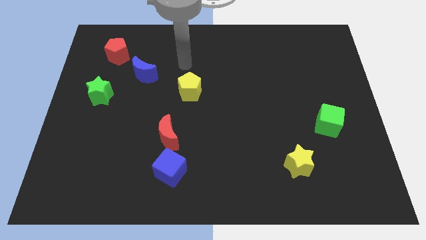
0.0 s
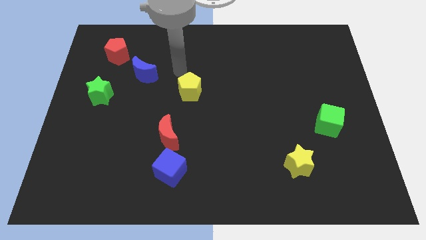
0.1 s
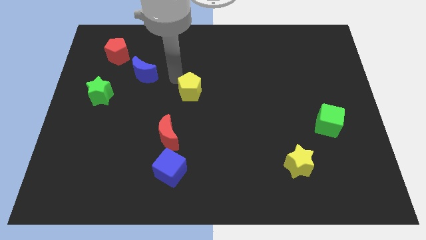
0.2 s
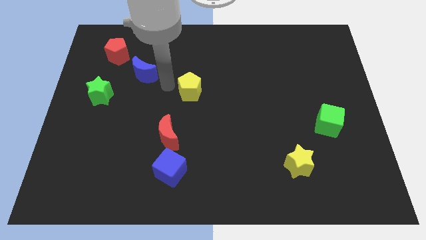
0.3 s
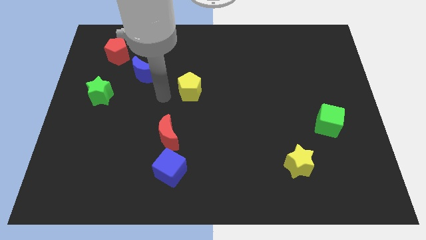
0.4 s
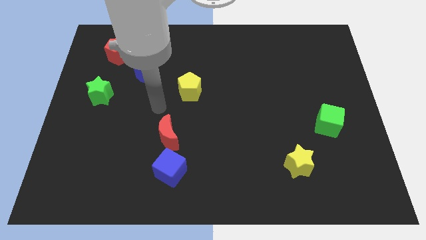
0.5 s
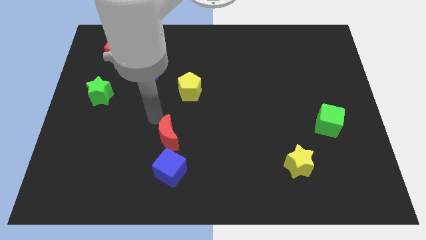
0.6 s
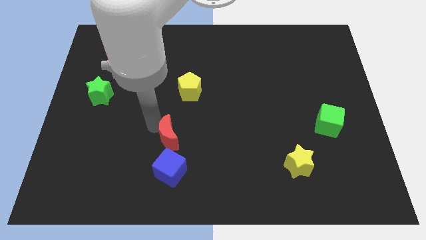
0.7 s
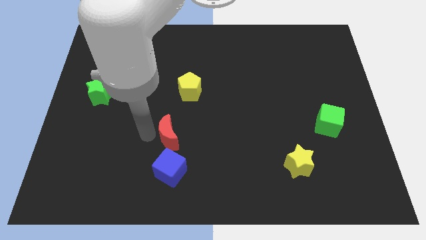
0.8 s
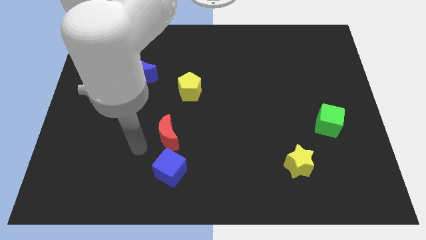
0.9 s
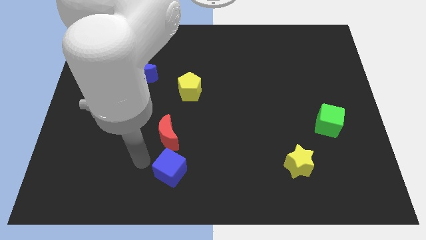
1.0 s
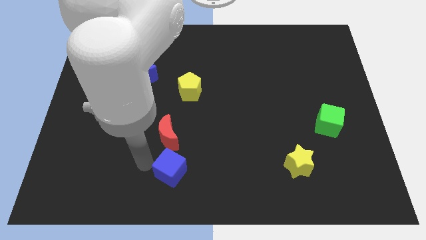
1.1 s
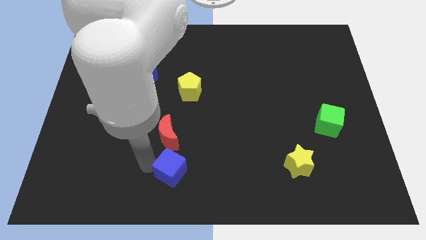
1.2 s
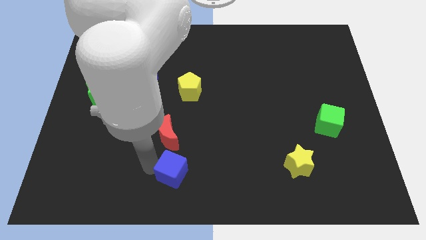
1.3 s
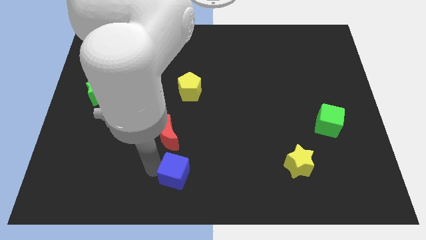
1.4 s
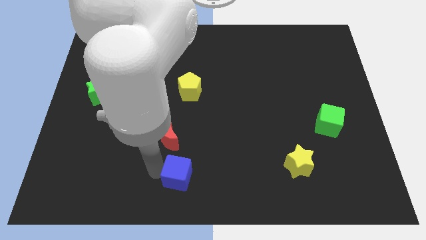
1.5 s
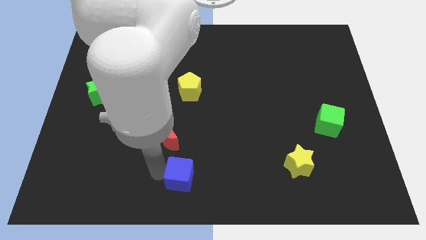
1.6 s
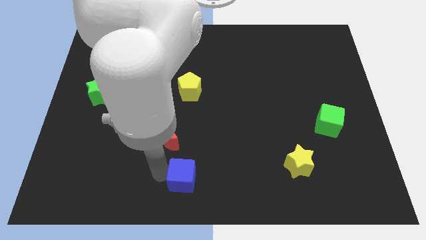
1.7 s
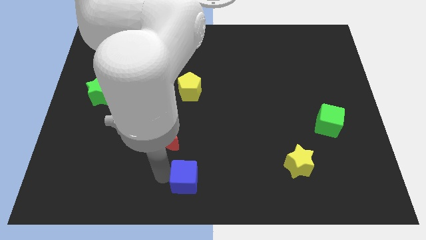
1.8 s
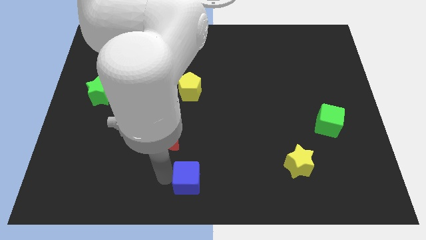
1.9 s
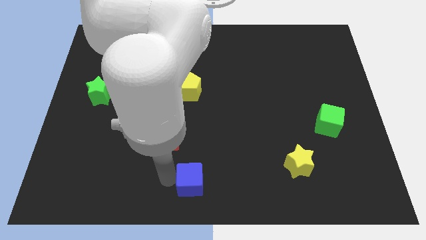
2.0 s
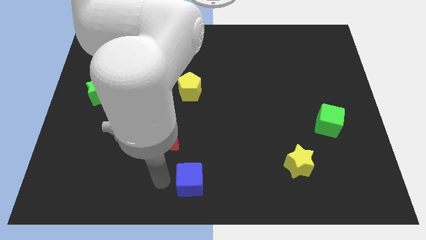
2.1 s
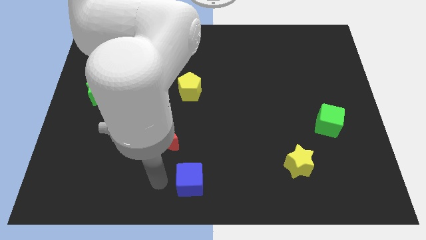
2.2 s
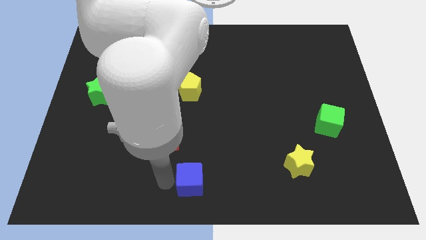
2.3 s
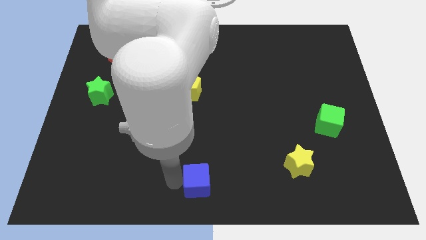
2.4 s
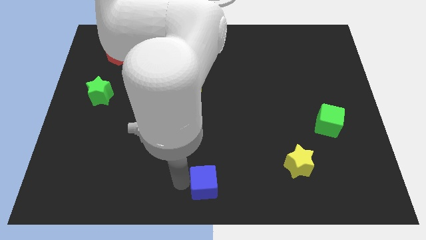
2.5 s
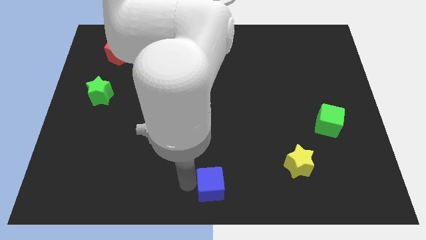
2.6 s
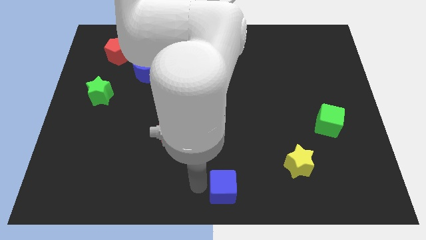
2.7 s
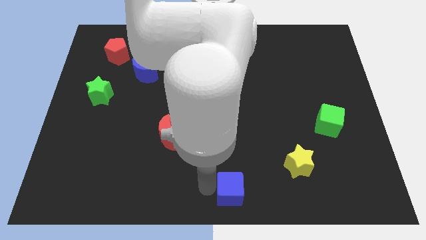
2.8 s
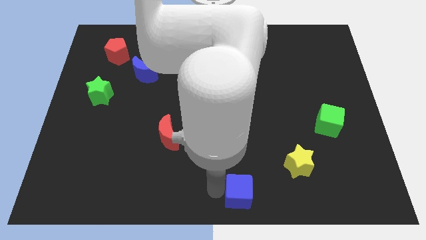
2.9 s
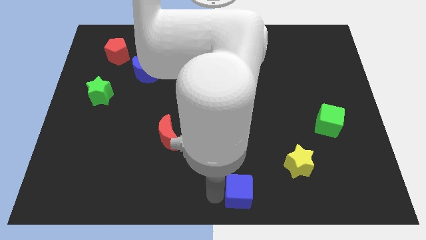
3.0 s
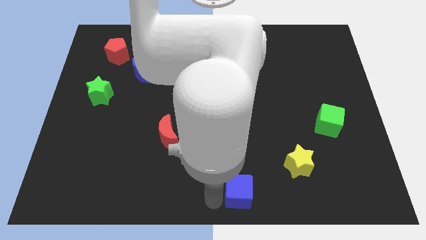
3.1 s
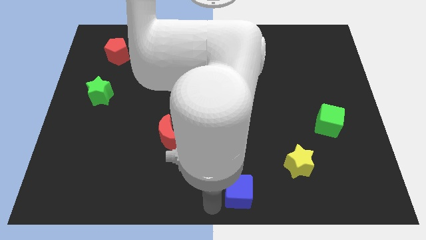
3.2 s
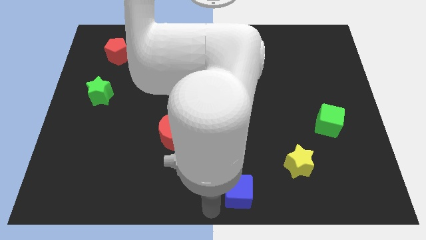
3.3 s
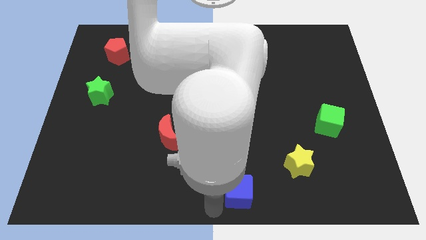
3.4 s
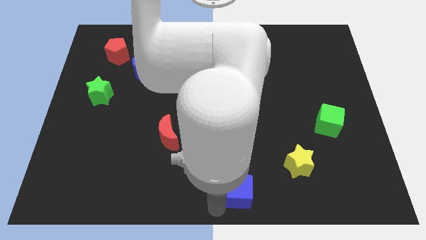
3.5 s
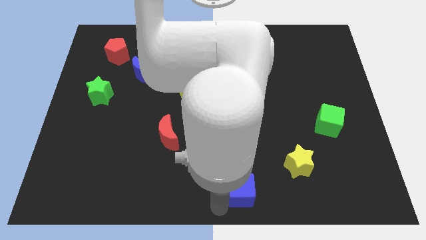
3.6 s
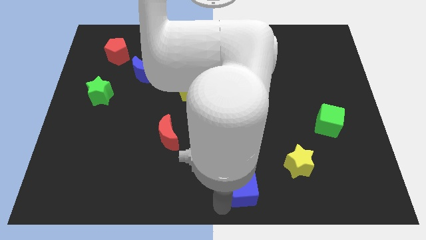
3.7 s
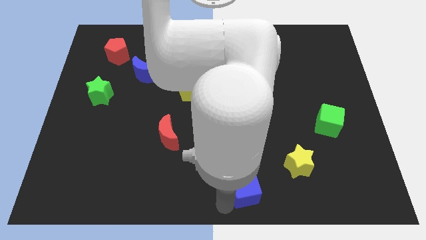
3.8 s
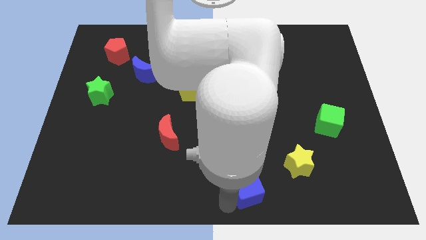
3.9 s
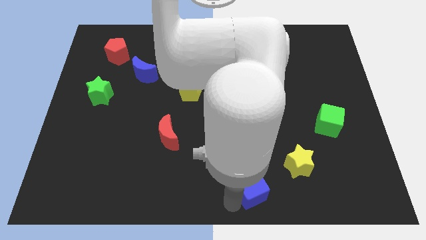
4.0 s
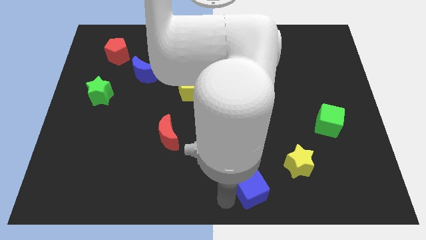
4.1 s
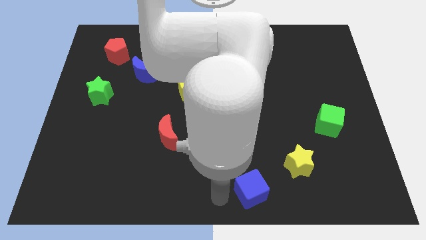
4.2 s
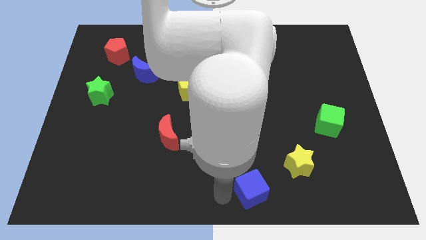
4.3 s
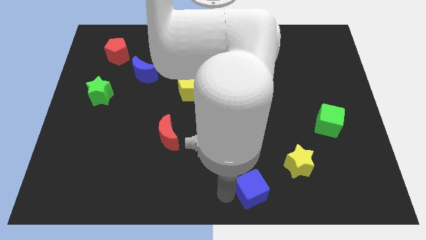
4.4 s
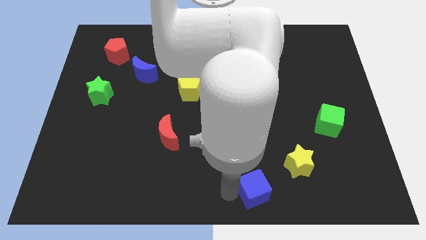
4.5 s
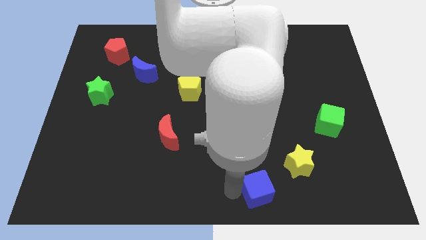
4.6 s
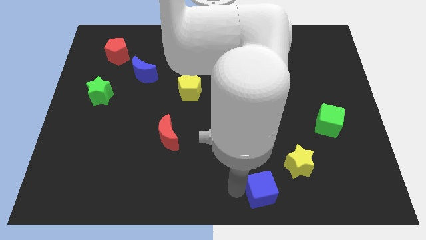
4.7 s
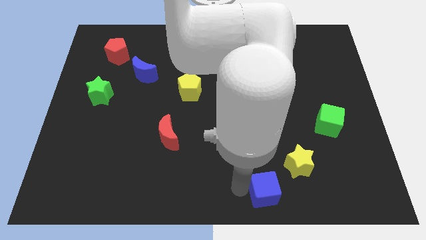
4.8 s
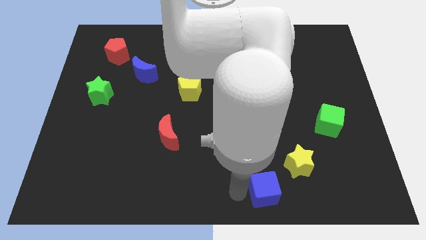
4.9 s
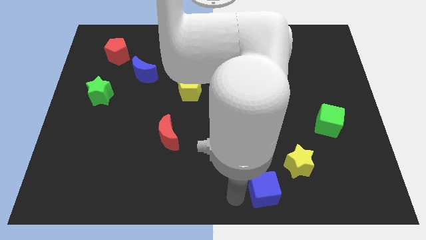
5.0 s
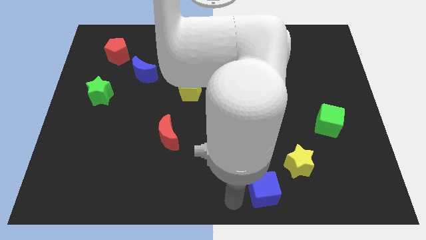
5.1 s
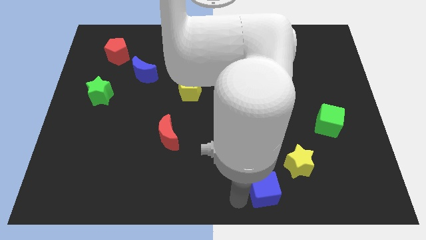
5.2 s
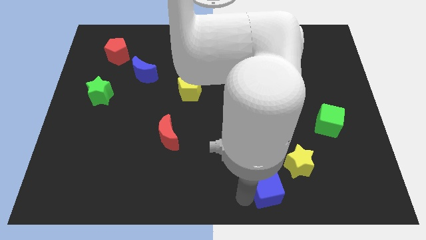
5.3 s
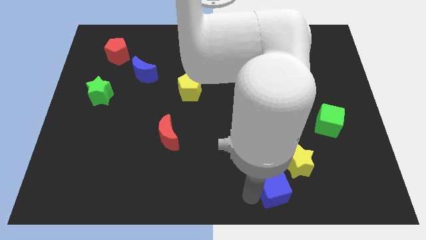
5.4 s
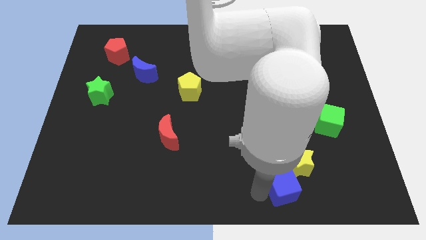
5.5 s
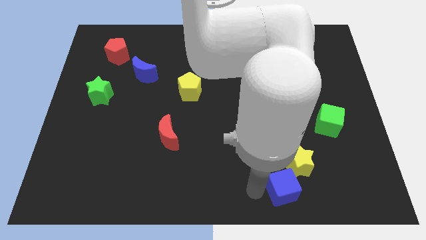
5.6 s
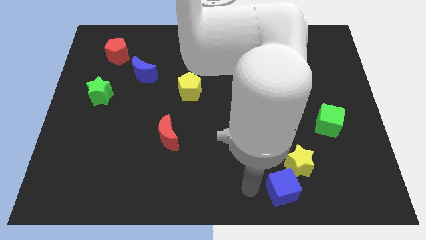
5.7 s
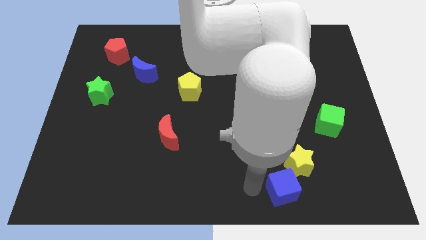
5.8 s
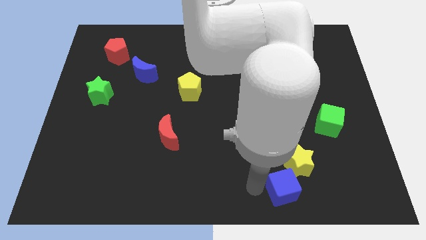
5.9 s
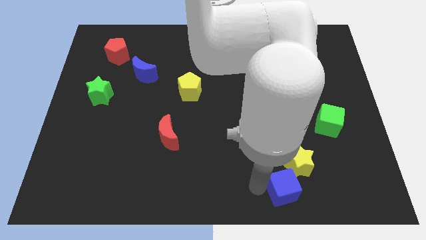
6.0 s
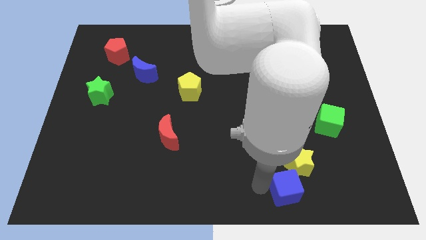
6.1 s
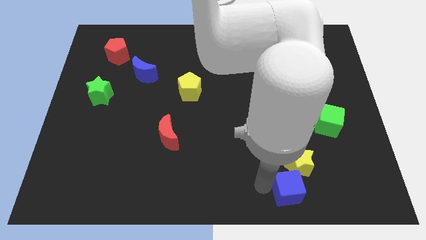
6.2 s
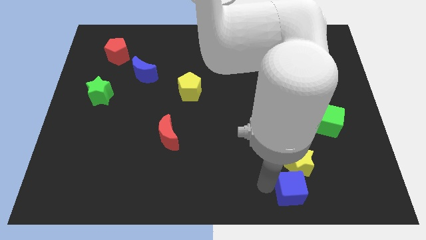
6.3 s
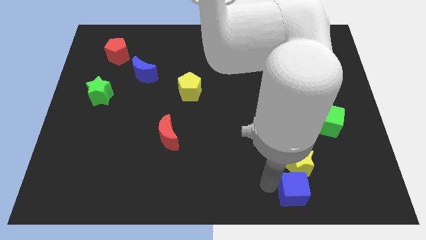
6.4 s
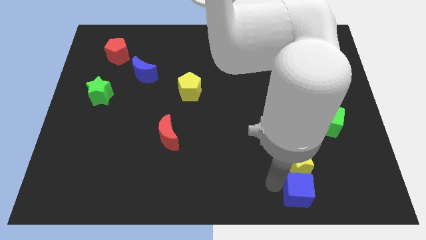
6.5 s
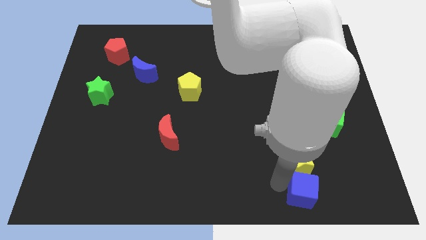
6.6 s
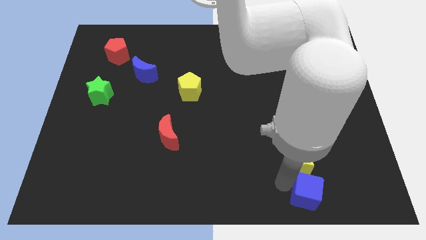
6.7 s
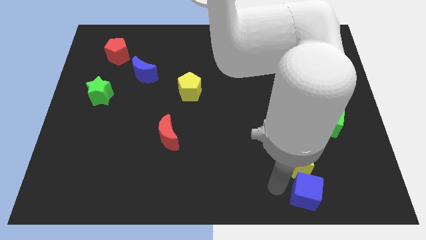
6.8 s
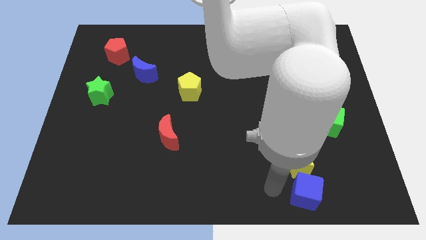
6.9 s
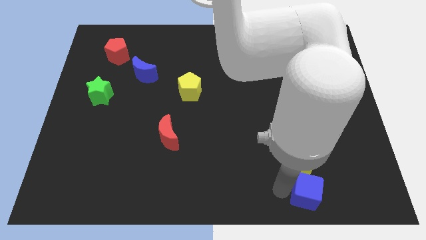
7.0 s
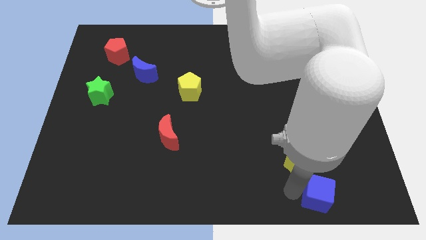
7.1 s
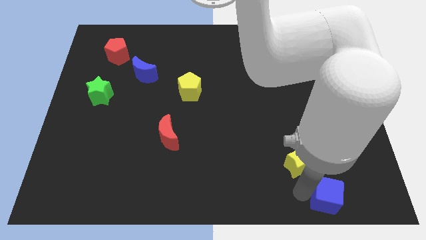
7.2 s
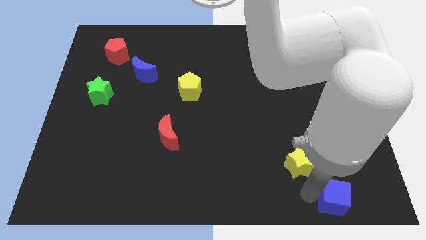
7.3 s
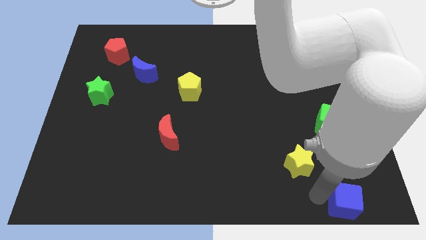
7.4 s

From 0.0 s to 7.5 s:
move the blue cube to the bottom right of the board
